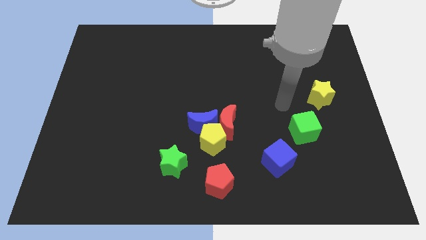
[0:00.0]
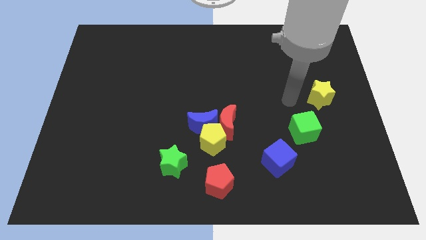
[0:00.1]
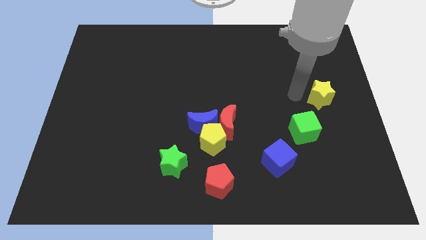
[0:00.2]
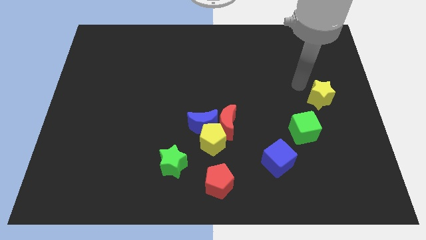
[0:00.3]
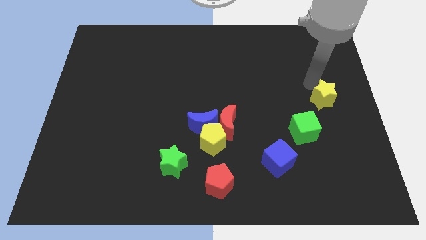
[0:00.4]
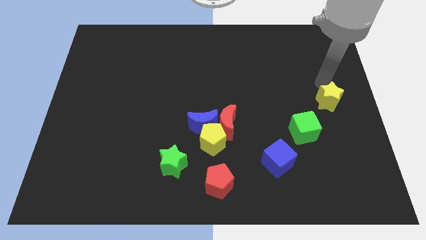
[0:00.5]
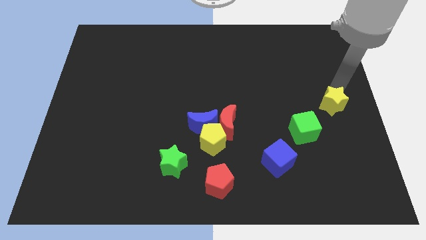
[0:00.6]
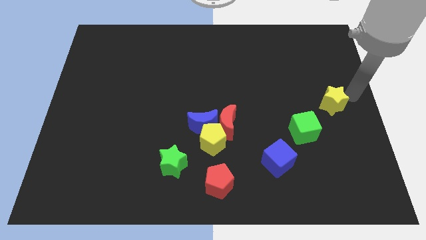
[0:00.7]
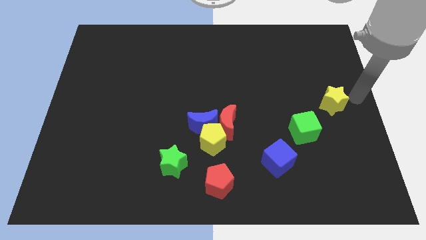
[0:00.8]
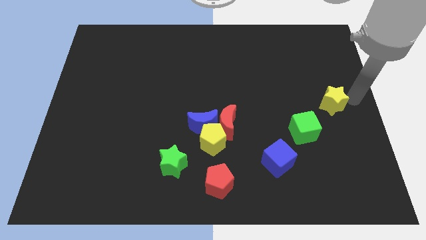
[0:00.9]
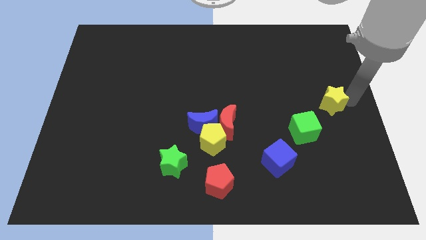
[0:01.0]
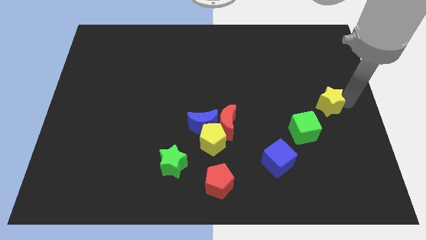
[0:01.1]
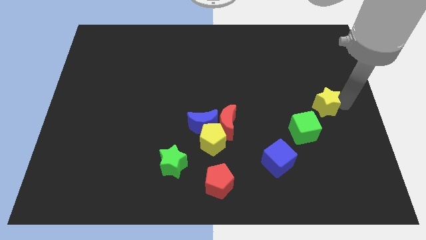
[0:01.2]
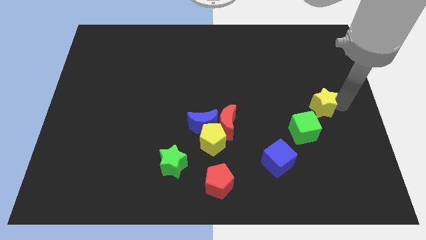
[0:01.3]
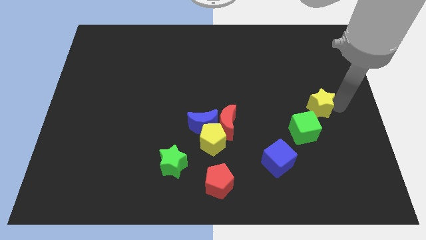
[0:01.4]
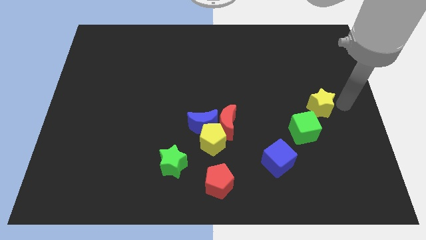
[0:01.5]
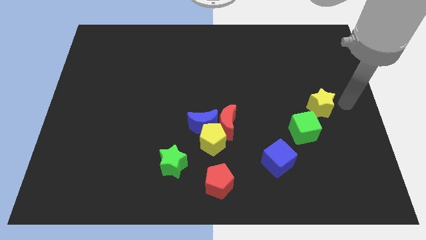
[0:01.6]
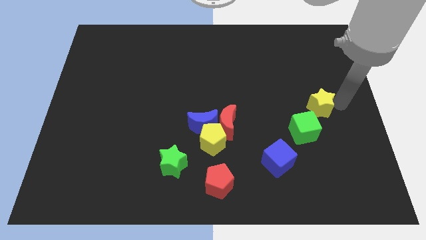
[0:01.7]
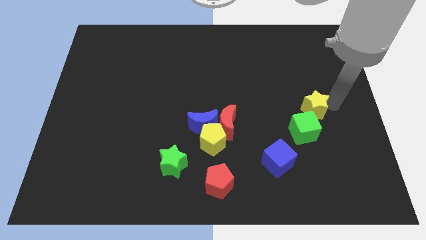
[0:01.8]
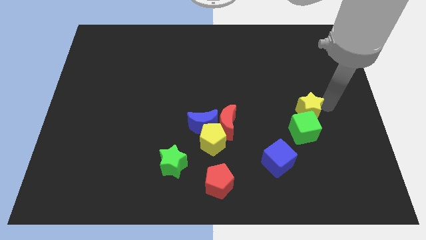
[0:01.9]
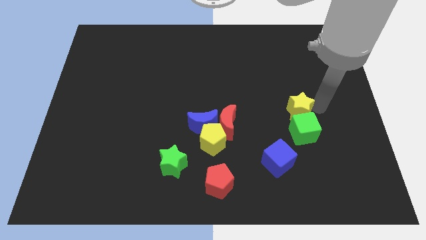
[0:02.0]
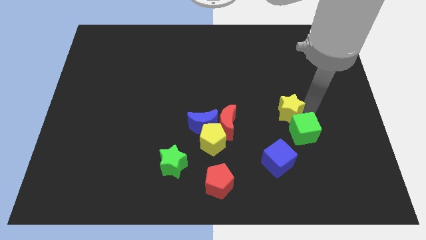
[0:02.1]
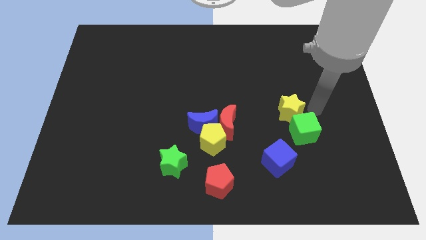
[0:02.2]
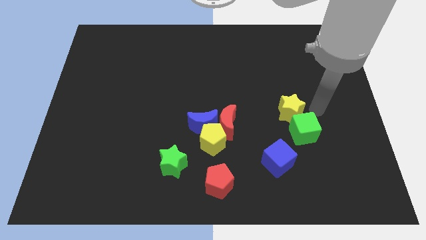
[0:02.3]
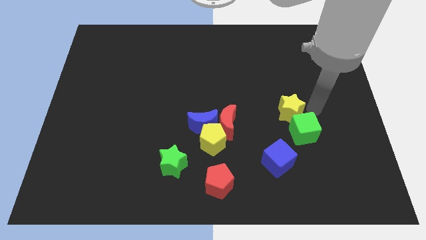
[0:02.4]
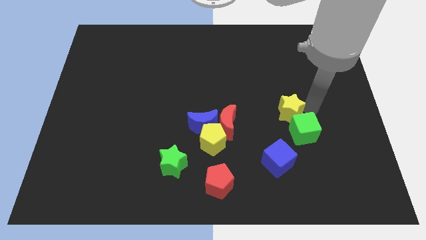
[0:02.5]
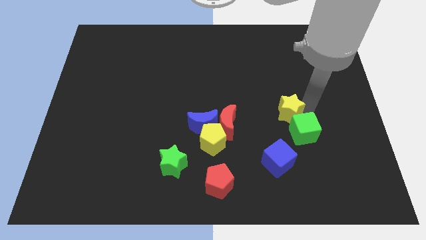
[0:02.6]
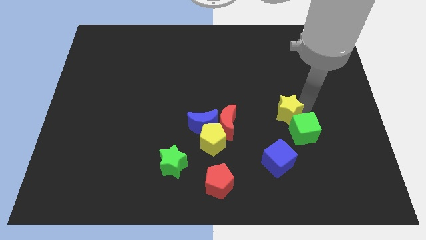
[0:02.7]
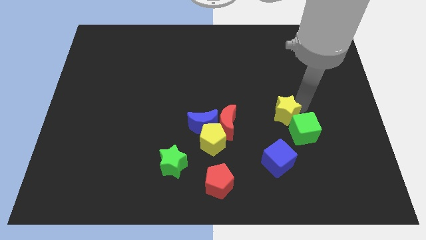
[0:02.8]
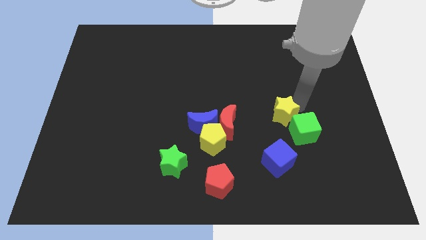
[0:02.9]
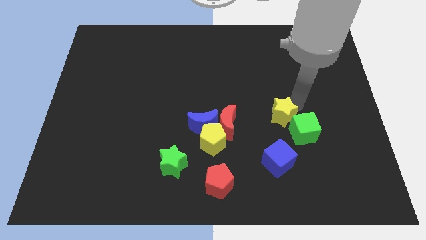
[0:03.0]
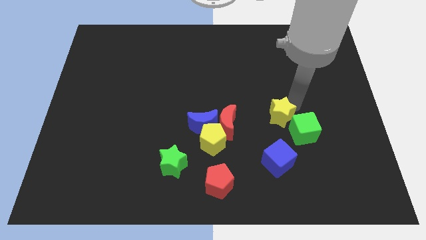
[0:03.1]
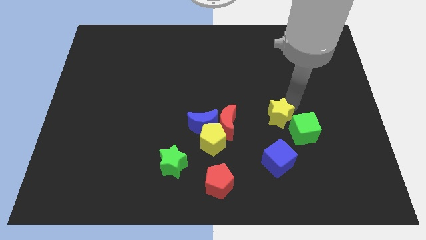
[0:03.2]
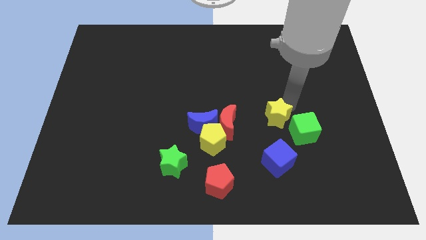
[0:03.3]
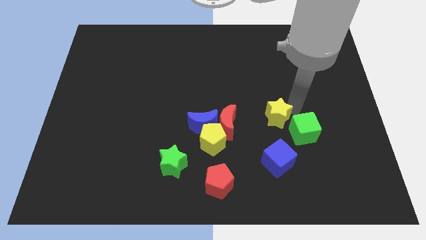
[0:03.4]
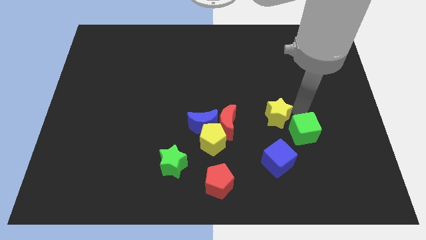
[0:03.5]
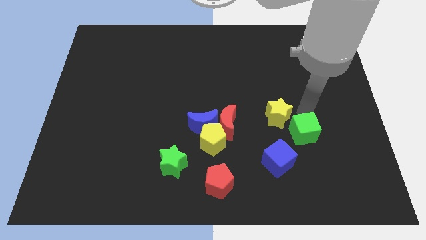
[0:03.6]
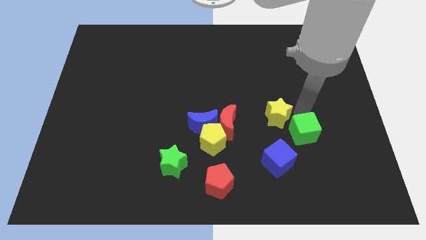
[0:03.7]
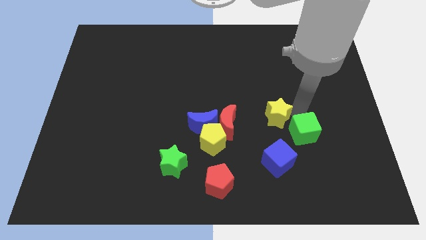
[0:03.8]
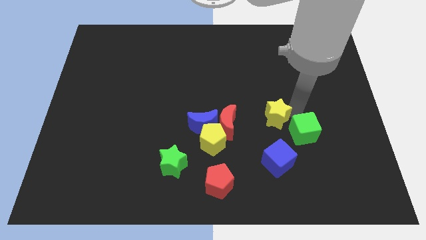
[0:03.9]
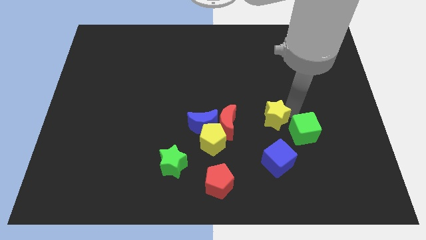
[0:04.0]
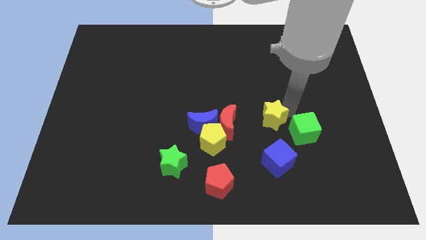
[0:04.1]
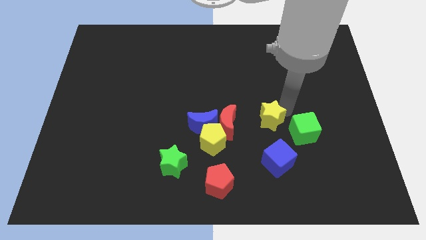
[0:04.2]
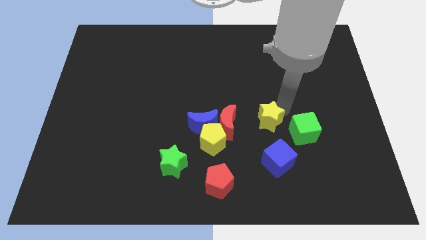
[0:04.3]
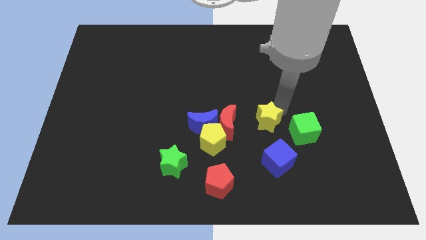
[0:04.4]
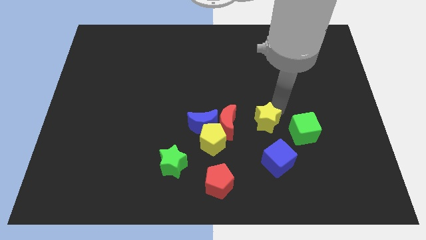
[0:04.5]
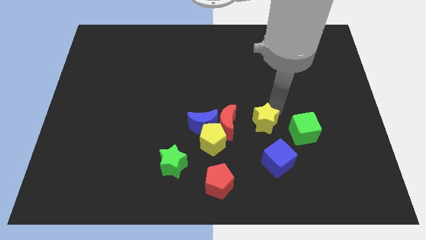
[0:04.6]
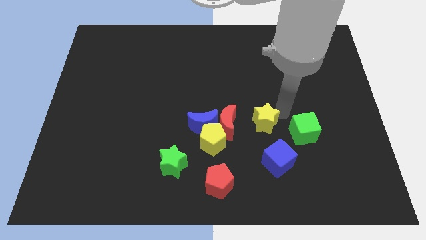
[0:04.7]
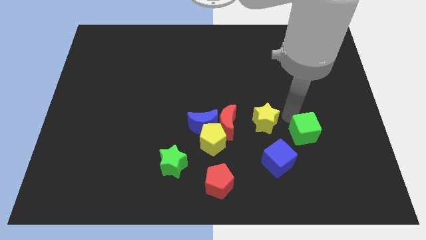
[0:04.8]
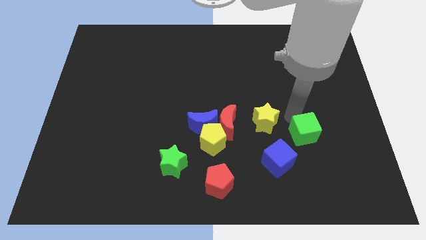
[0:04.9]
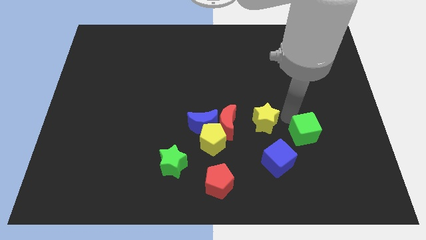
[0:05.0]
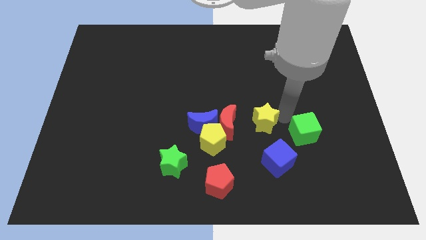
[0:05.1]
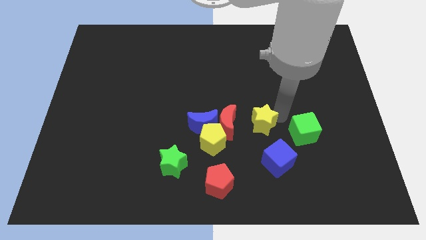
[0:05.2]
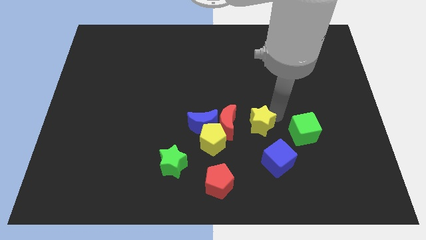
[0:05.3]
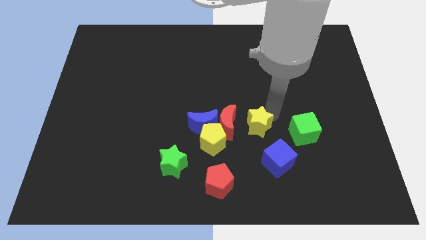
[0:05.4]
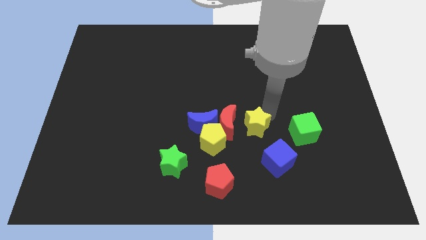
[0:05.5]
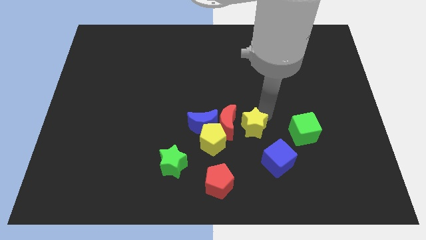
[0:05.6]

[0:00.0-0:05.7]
move the yellow star close to the red moon

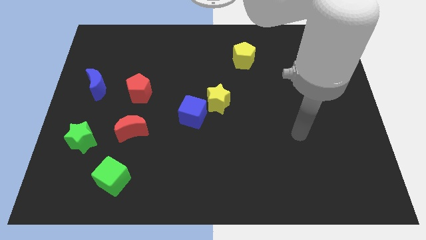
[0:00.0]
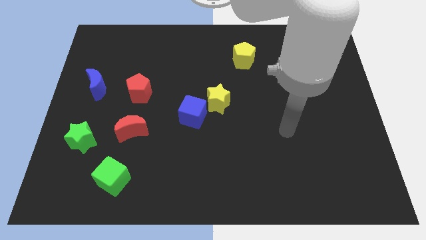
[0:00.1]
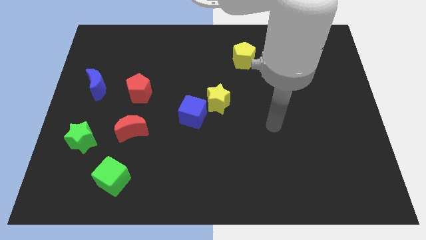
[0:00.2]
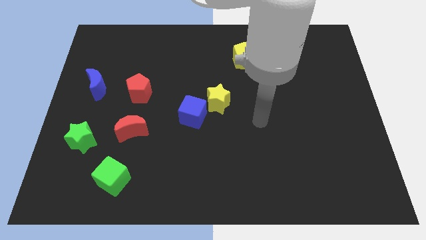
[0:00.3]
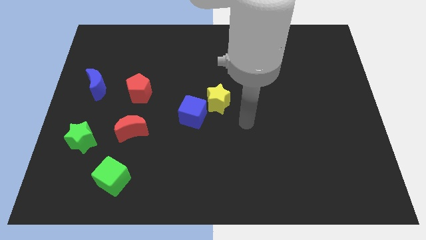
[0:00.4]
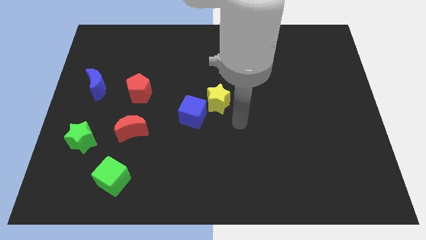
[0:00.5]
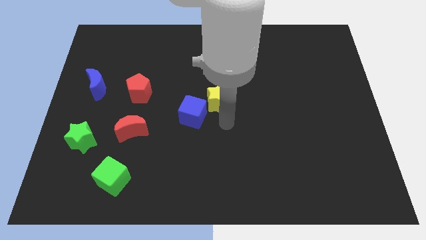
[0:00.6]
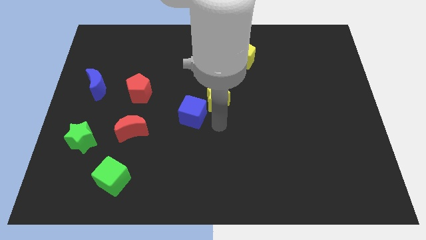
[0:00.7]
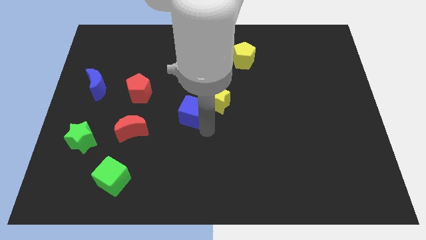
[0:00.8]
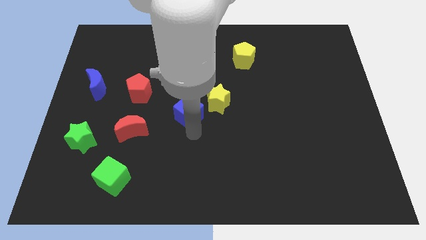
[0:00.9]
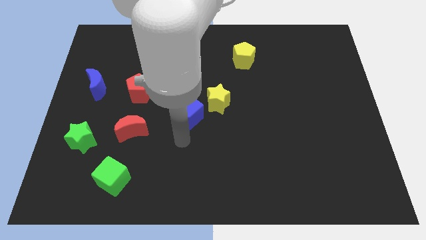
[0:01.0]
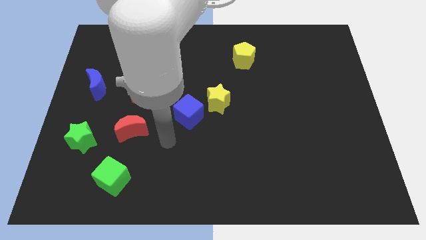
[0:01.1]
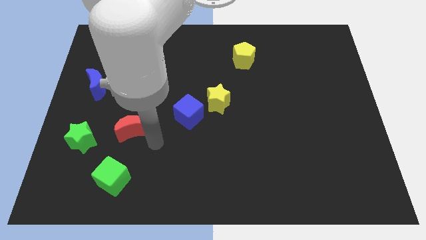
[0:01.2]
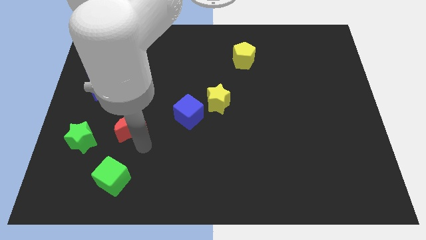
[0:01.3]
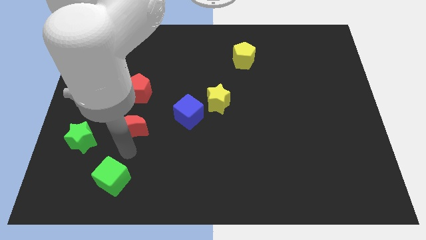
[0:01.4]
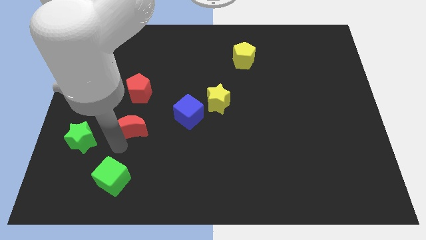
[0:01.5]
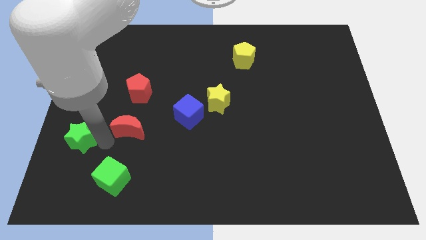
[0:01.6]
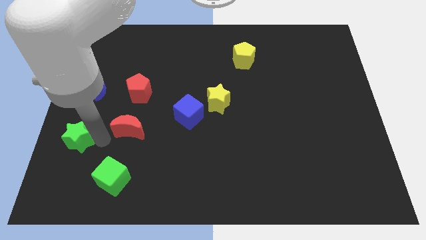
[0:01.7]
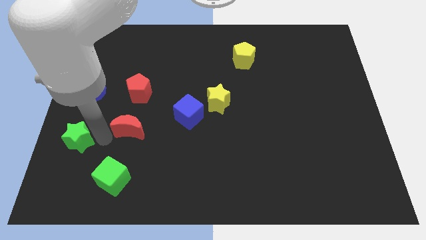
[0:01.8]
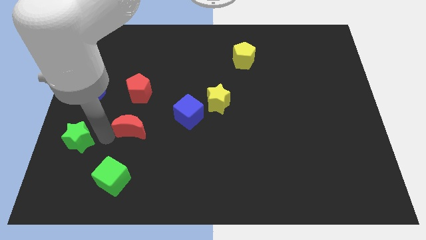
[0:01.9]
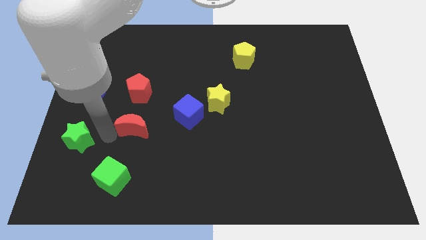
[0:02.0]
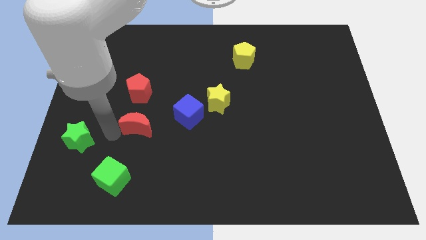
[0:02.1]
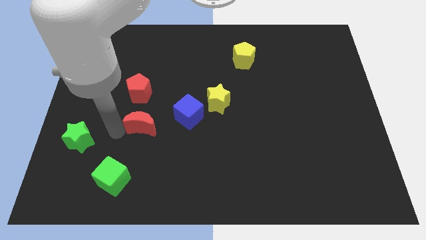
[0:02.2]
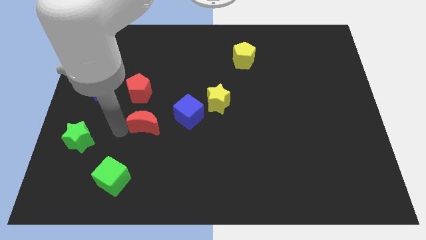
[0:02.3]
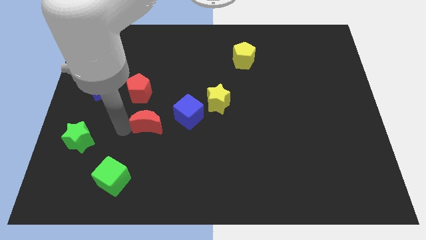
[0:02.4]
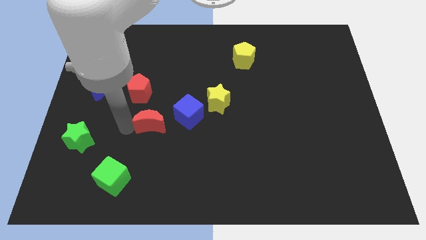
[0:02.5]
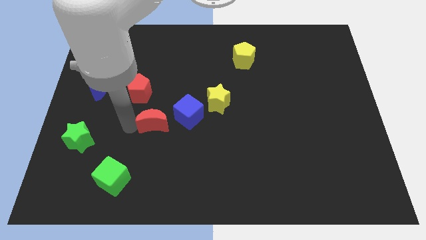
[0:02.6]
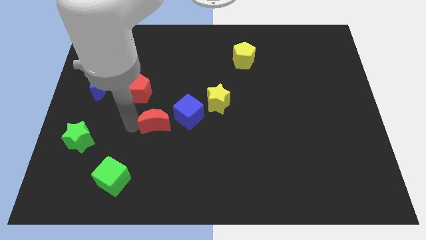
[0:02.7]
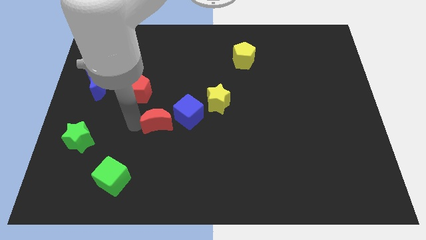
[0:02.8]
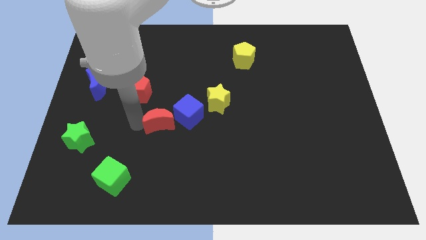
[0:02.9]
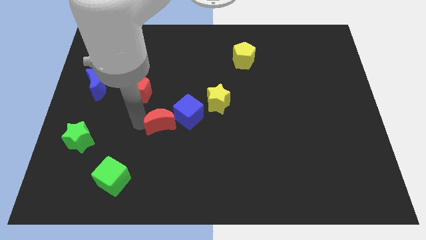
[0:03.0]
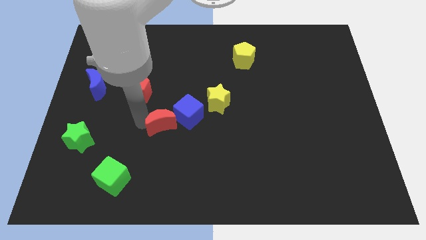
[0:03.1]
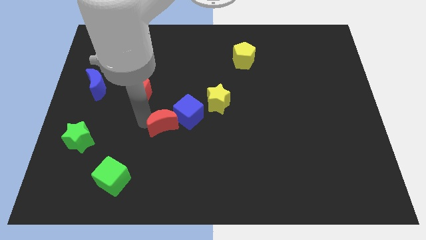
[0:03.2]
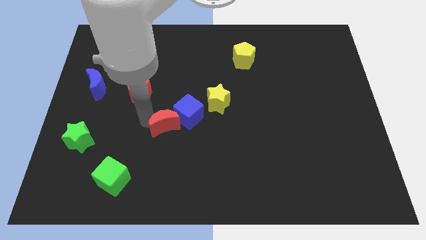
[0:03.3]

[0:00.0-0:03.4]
push the red moon towards the blue cube
